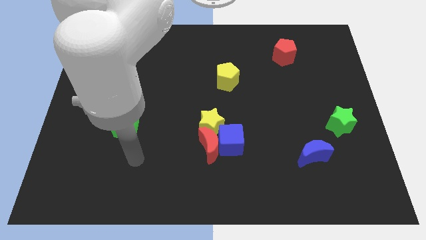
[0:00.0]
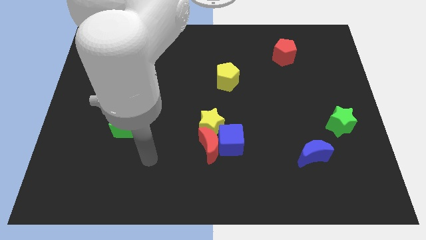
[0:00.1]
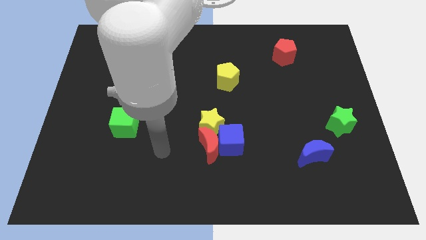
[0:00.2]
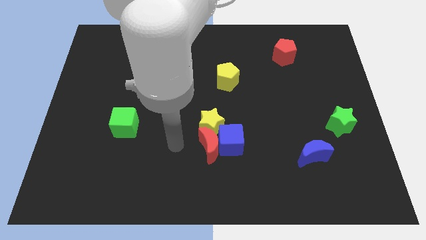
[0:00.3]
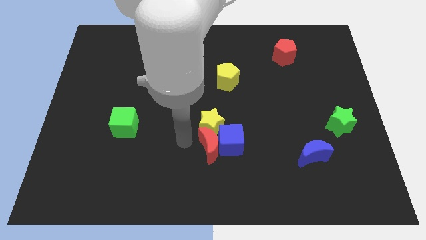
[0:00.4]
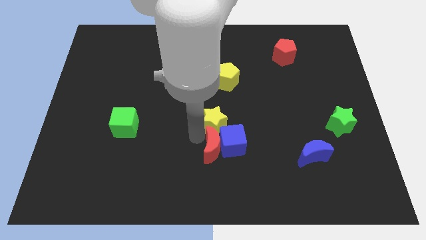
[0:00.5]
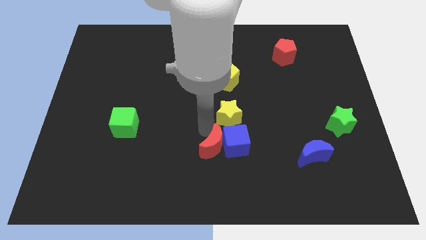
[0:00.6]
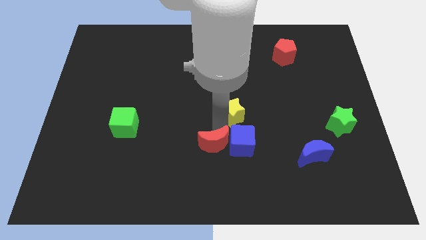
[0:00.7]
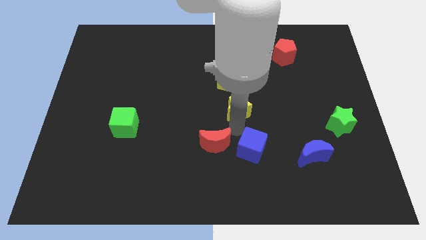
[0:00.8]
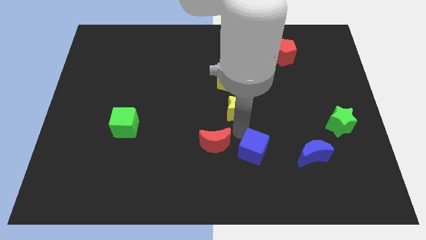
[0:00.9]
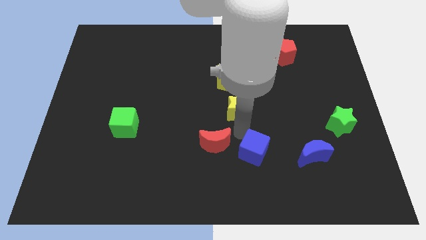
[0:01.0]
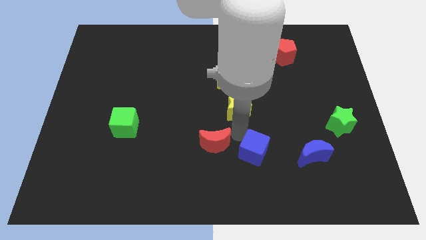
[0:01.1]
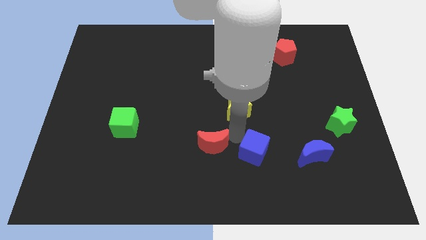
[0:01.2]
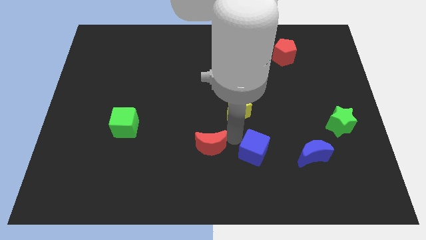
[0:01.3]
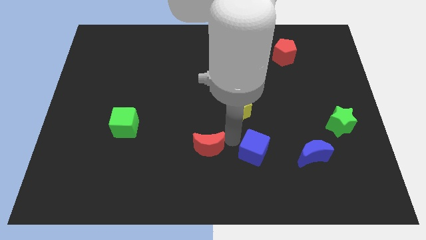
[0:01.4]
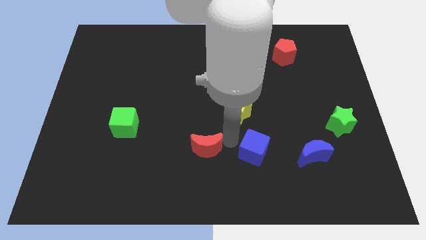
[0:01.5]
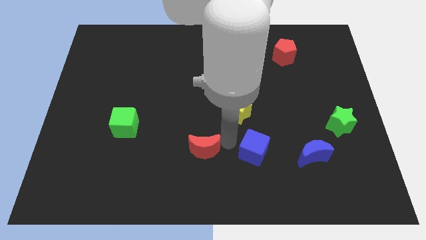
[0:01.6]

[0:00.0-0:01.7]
move the red moon away from the blue cube and yellow star

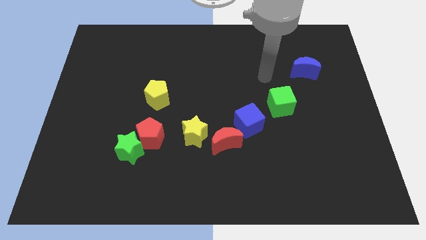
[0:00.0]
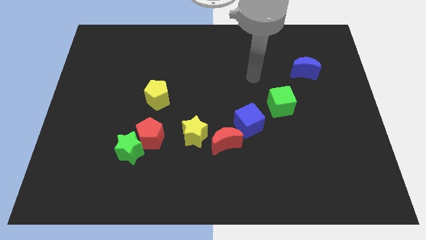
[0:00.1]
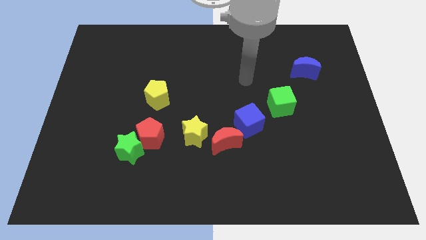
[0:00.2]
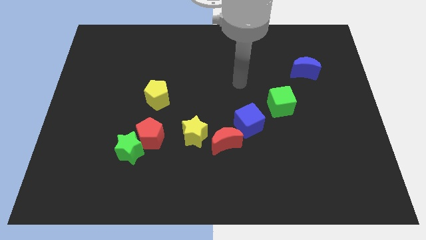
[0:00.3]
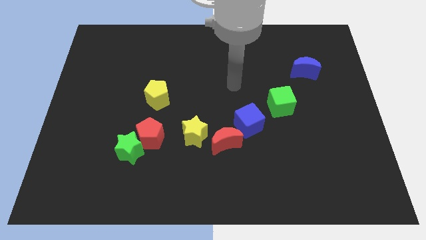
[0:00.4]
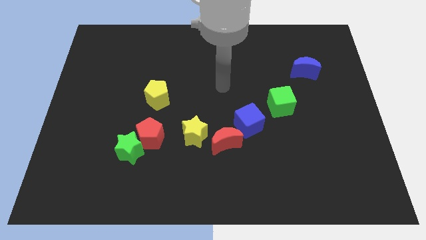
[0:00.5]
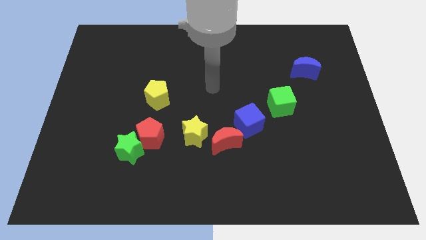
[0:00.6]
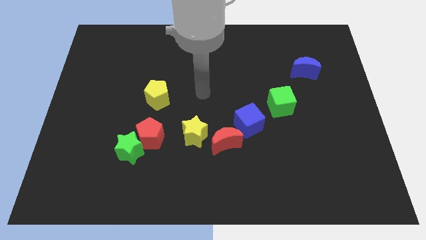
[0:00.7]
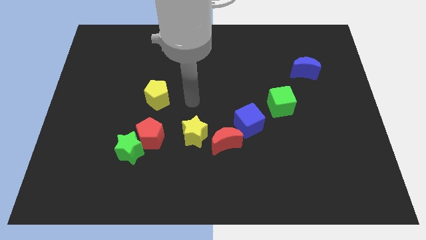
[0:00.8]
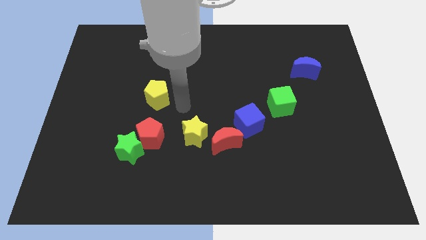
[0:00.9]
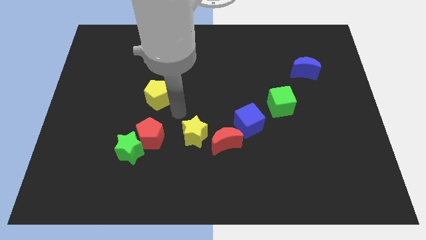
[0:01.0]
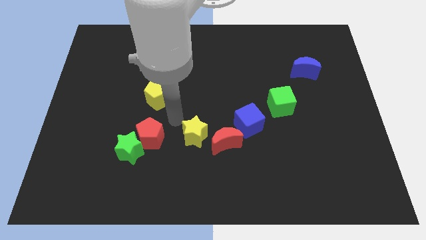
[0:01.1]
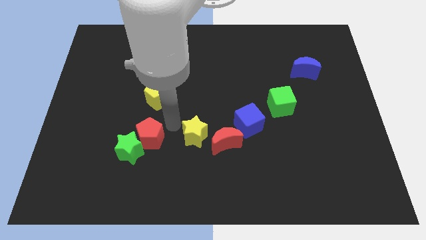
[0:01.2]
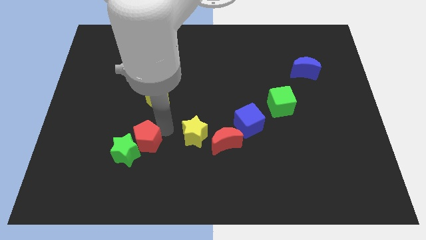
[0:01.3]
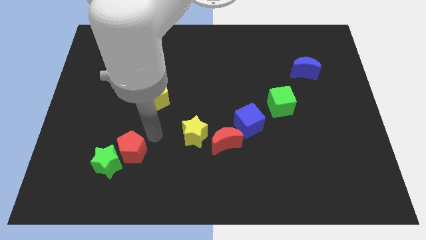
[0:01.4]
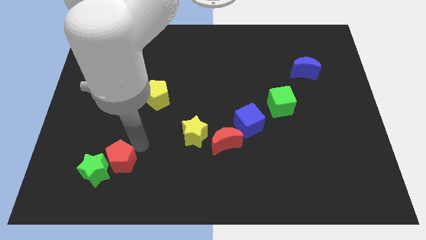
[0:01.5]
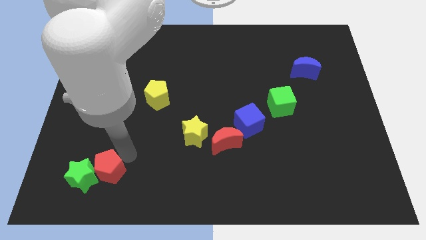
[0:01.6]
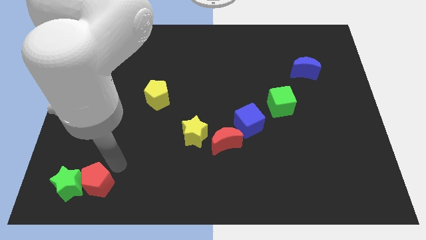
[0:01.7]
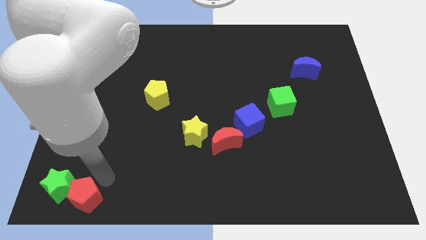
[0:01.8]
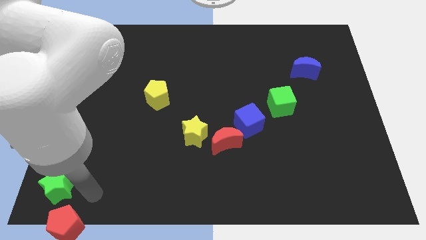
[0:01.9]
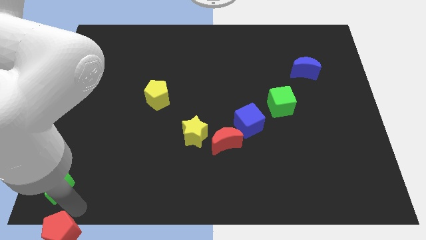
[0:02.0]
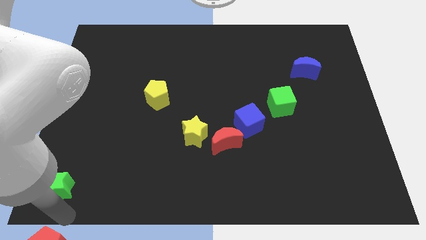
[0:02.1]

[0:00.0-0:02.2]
move the green star away from the red pentagon

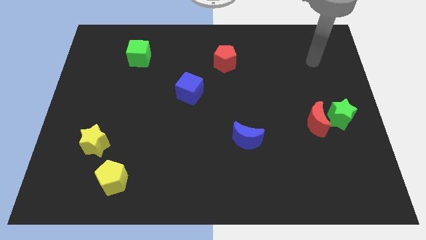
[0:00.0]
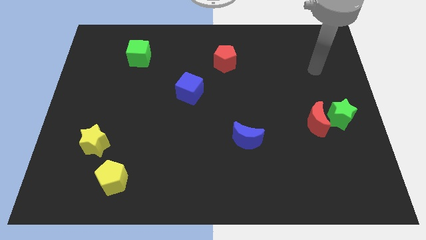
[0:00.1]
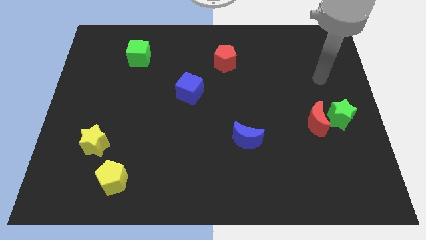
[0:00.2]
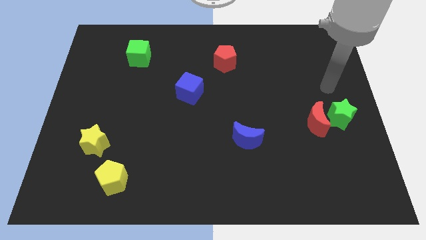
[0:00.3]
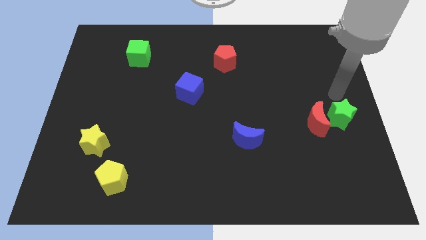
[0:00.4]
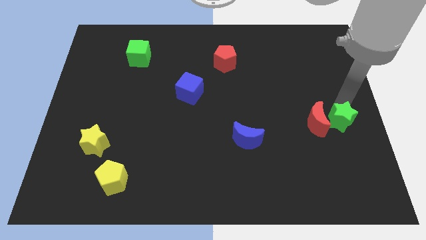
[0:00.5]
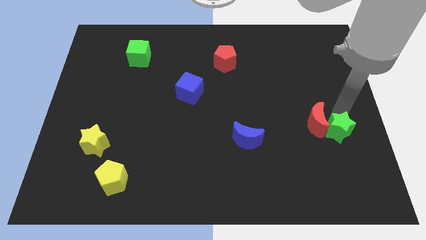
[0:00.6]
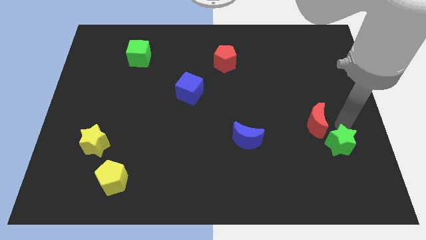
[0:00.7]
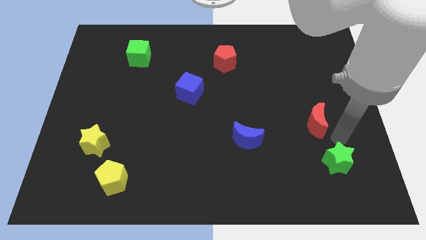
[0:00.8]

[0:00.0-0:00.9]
move the red moon away from the green star

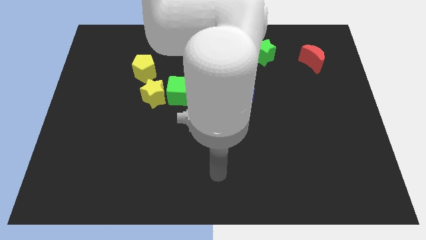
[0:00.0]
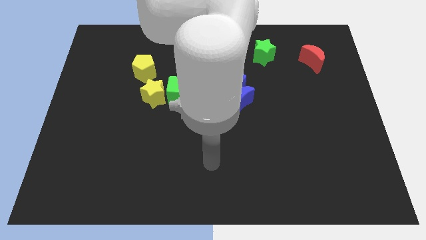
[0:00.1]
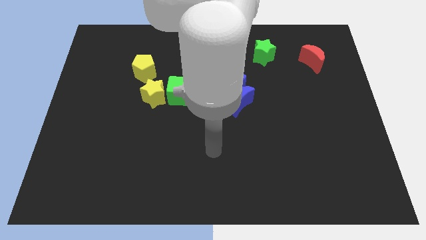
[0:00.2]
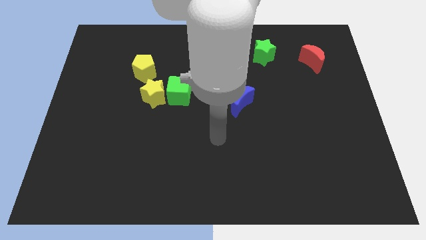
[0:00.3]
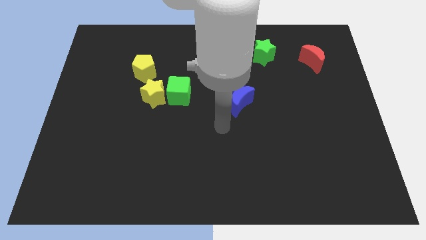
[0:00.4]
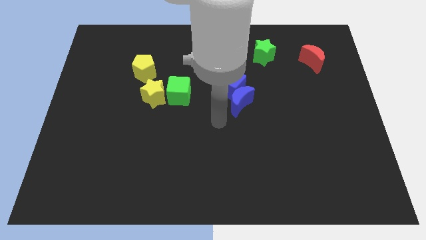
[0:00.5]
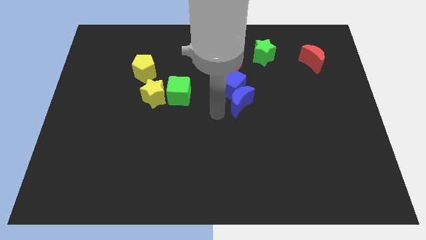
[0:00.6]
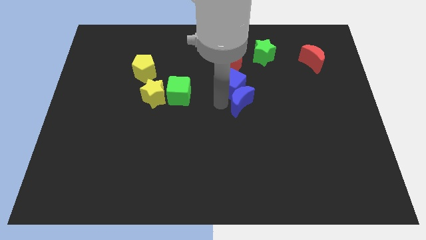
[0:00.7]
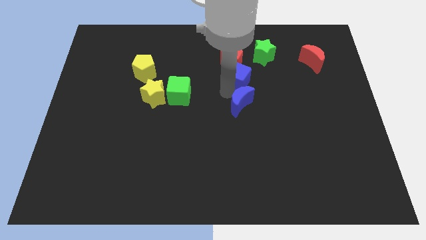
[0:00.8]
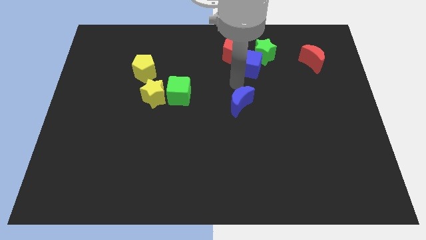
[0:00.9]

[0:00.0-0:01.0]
pull the blue moon apart from the blue cube

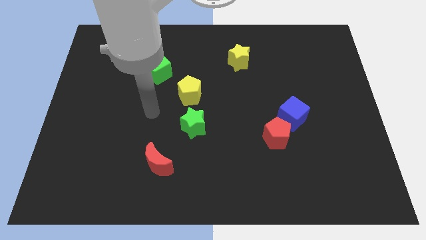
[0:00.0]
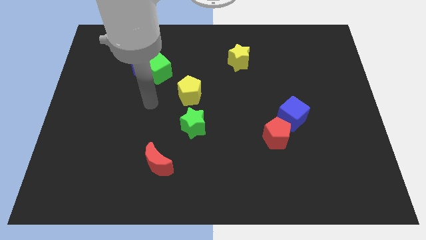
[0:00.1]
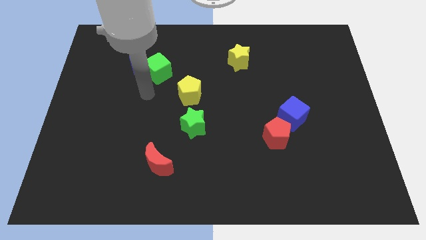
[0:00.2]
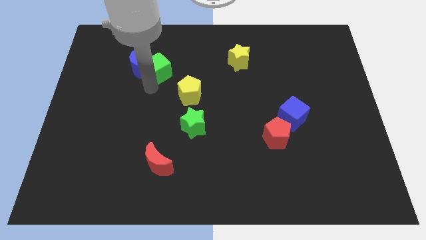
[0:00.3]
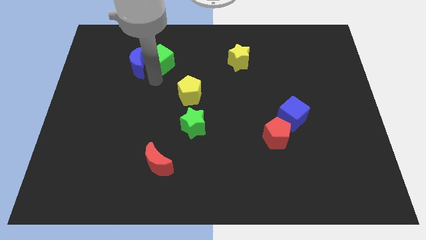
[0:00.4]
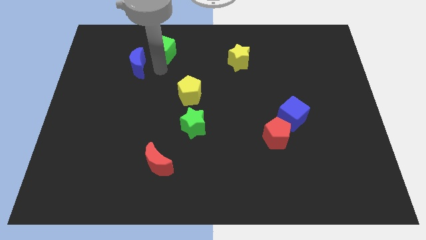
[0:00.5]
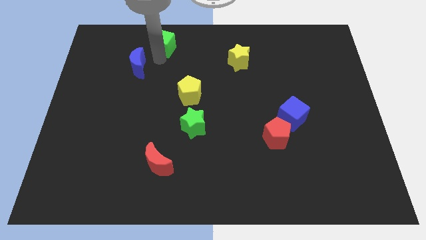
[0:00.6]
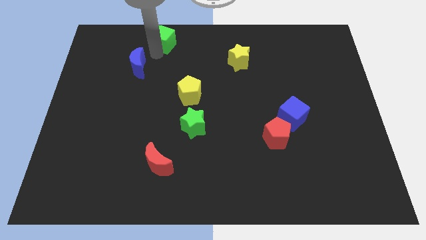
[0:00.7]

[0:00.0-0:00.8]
pull the blue moon apart from the green cube

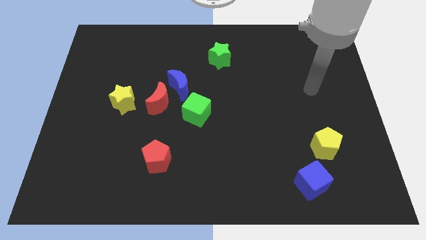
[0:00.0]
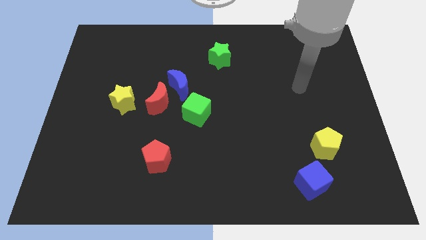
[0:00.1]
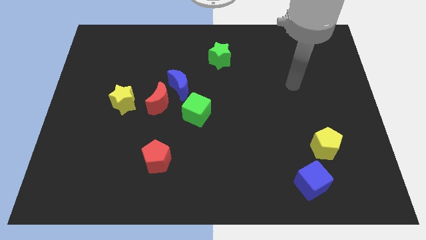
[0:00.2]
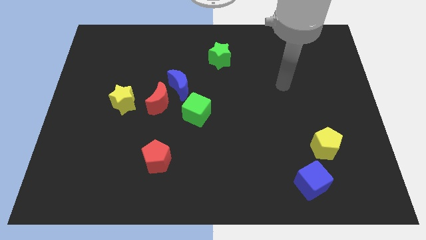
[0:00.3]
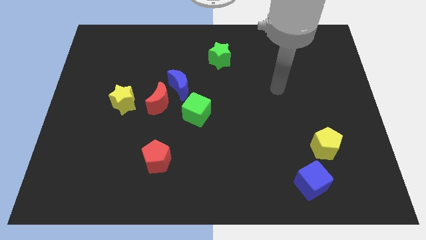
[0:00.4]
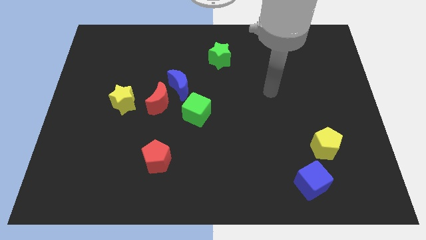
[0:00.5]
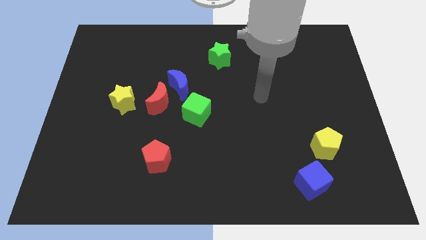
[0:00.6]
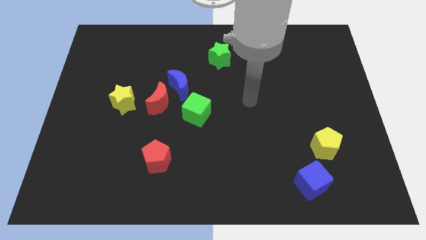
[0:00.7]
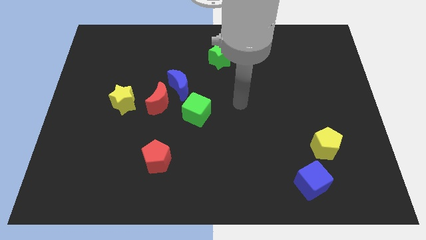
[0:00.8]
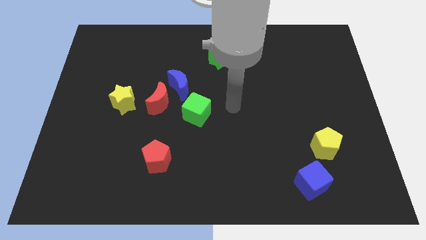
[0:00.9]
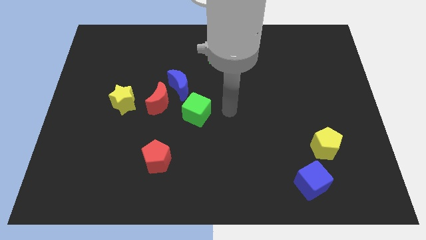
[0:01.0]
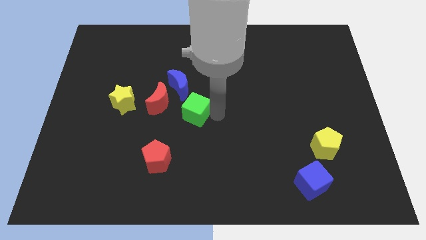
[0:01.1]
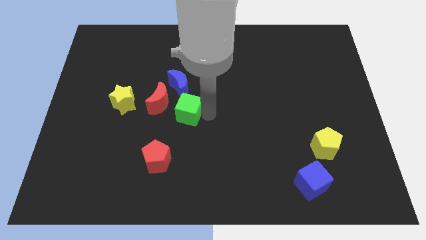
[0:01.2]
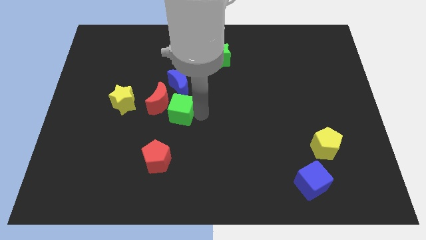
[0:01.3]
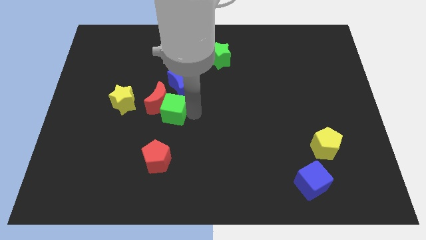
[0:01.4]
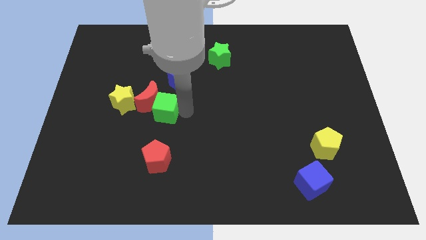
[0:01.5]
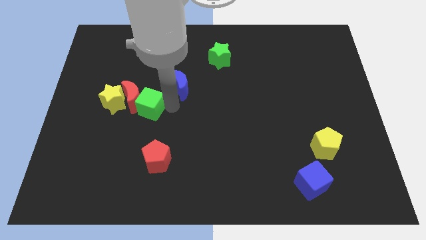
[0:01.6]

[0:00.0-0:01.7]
separate the blue moon from the red moon and green cube

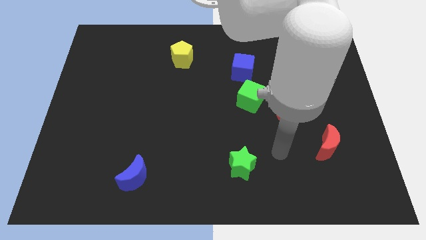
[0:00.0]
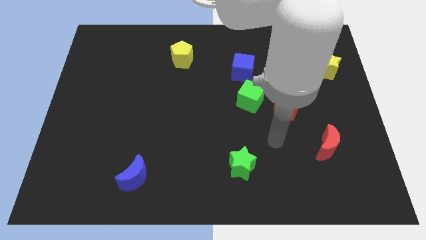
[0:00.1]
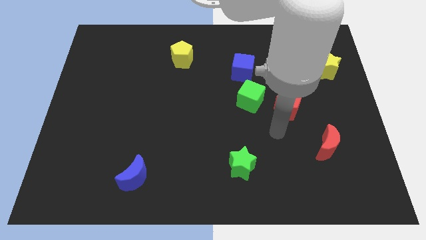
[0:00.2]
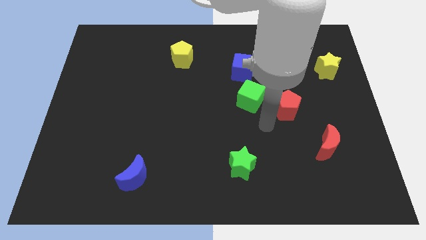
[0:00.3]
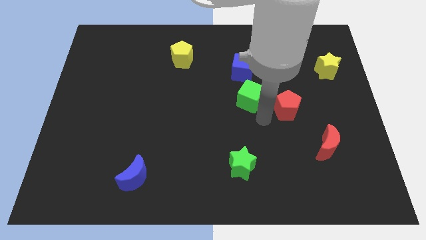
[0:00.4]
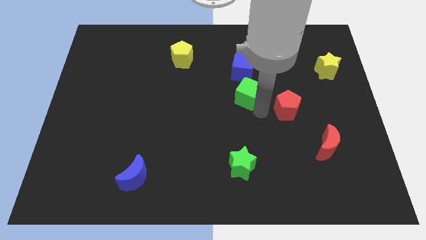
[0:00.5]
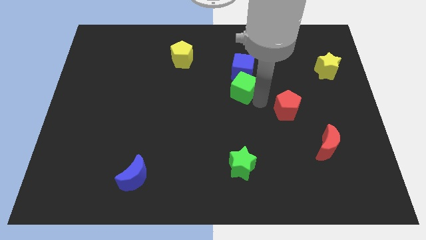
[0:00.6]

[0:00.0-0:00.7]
pull the red pentagon apart from the green cube

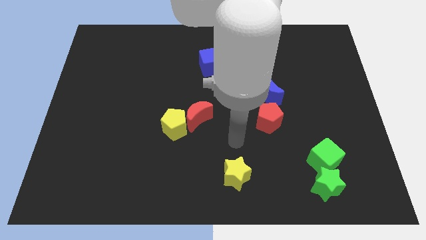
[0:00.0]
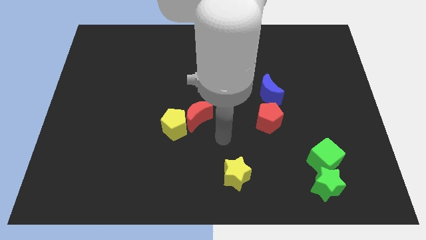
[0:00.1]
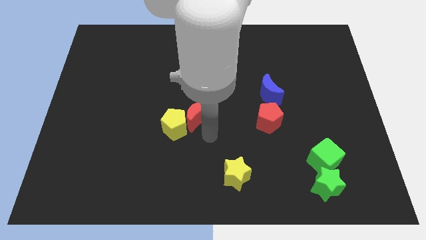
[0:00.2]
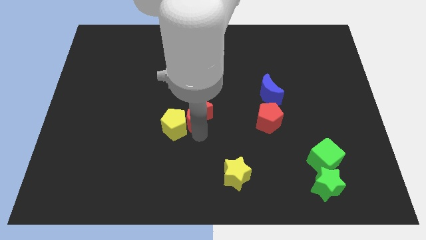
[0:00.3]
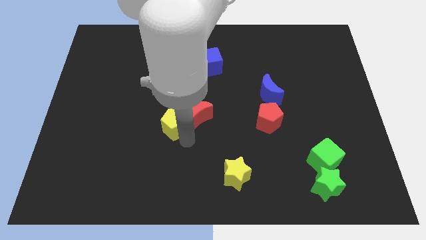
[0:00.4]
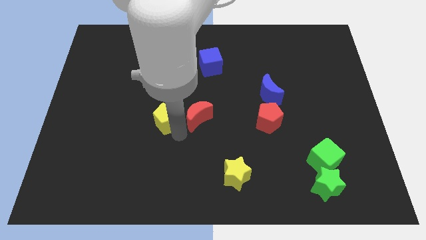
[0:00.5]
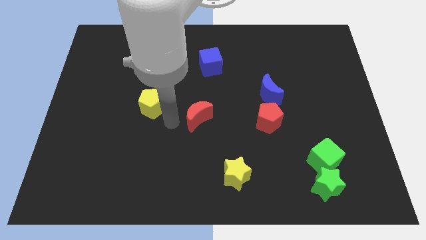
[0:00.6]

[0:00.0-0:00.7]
move the red moon away from the yellow pentagon
